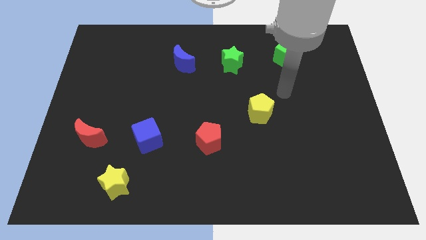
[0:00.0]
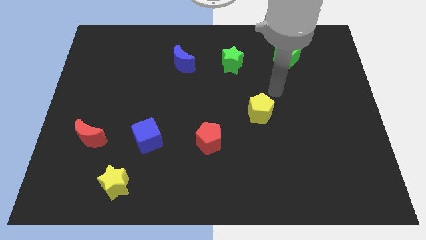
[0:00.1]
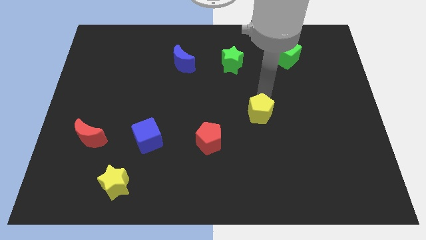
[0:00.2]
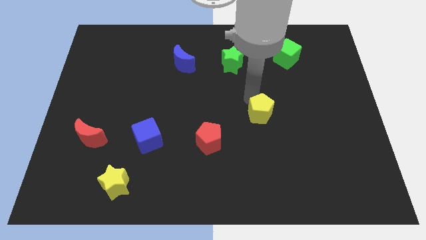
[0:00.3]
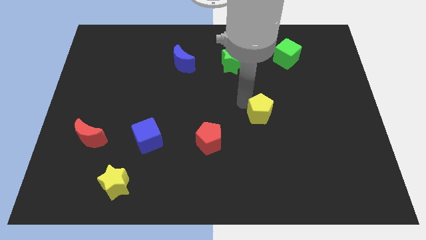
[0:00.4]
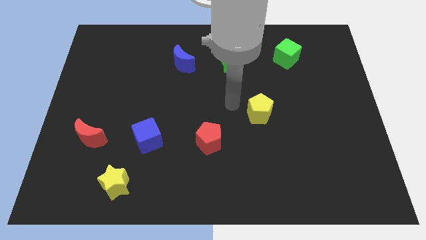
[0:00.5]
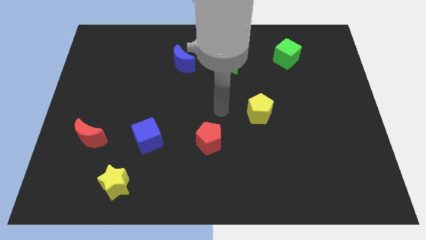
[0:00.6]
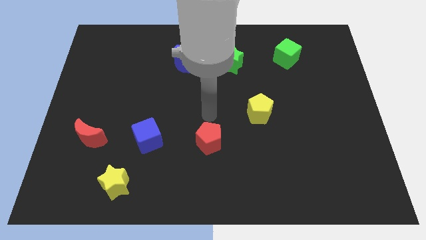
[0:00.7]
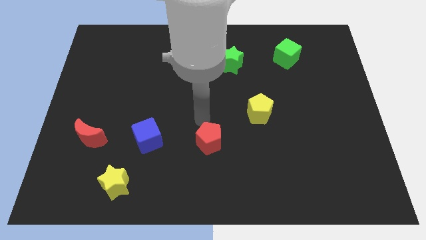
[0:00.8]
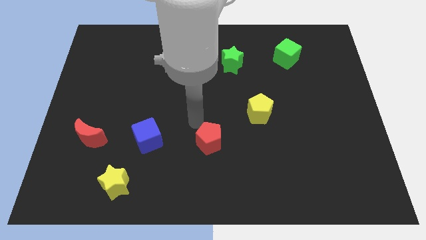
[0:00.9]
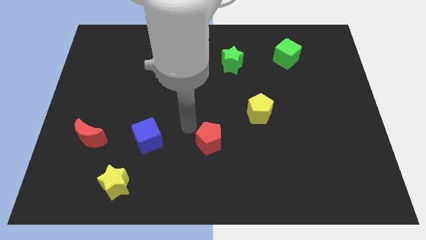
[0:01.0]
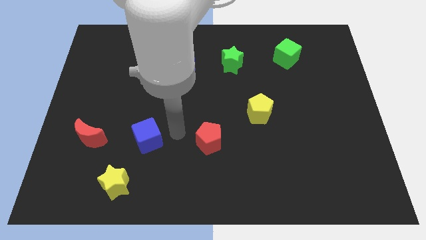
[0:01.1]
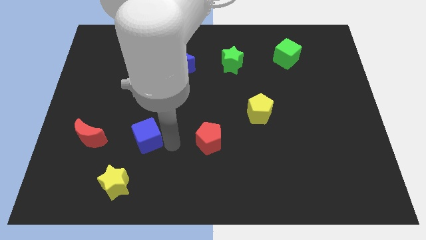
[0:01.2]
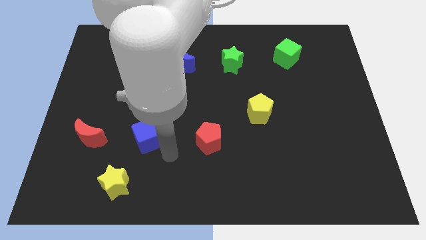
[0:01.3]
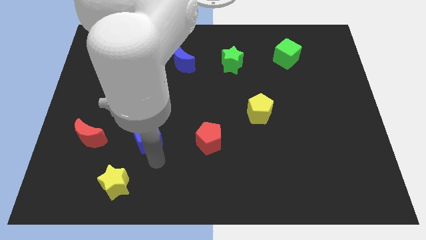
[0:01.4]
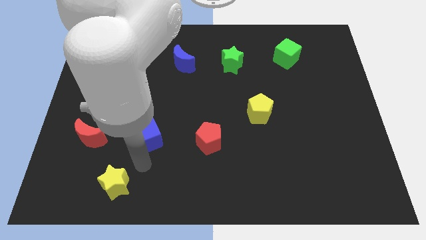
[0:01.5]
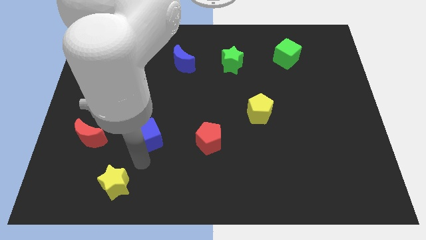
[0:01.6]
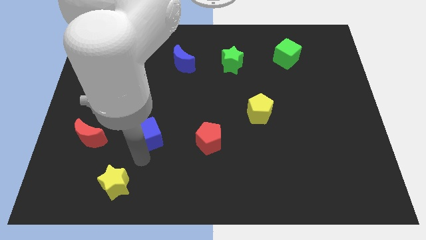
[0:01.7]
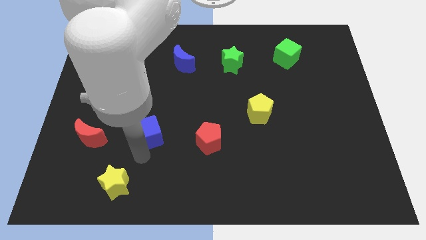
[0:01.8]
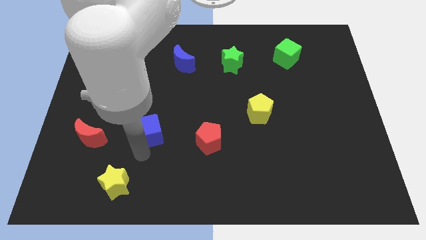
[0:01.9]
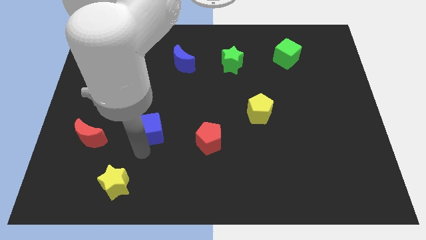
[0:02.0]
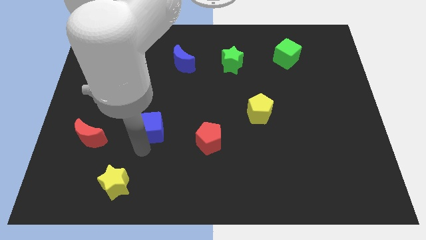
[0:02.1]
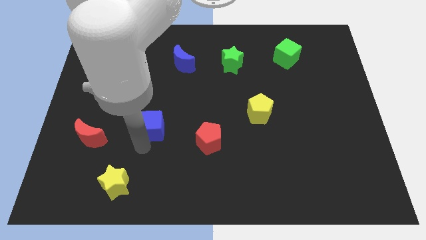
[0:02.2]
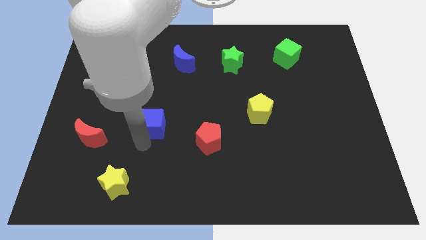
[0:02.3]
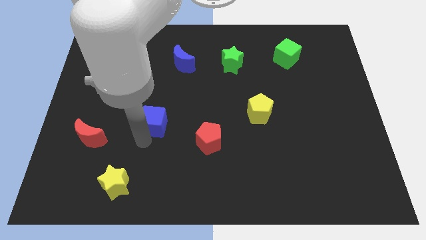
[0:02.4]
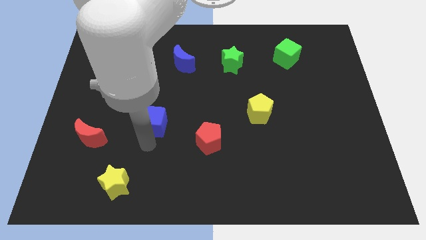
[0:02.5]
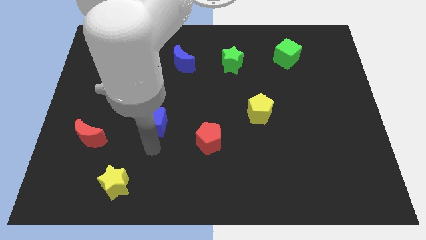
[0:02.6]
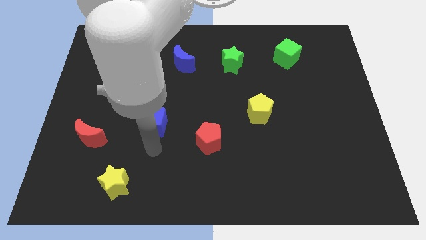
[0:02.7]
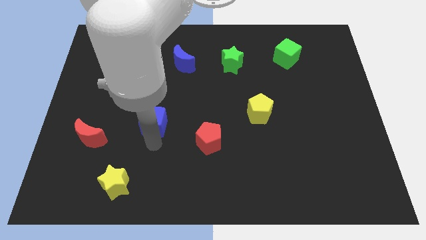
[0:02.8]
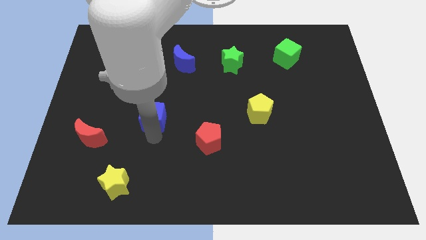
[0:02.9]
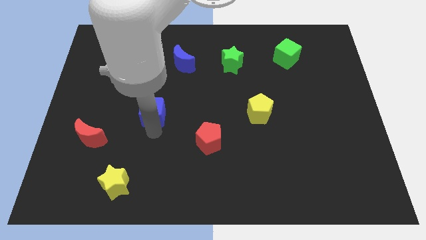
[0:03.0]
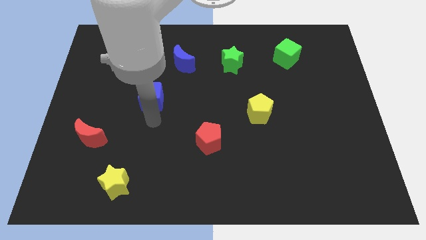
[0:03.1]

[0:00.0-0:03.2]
slide the blue cube a little upwards

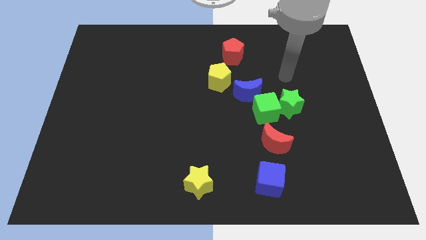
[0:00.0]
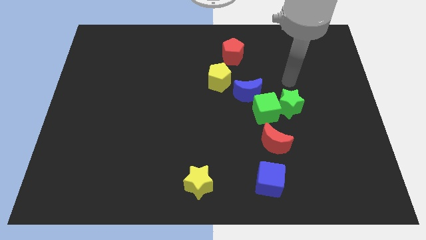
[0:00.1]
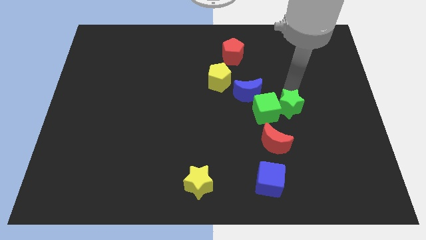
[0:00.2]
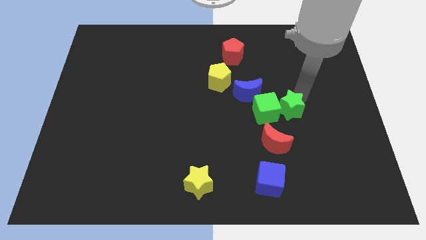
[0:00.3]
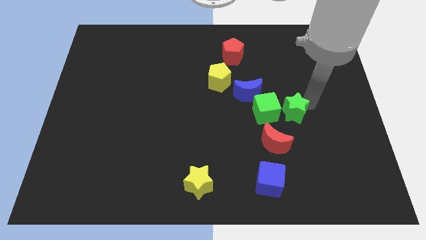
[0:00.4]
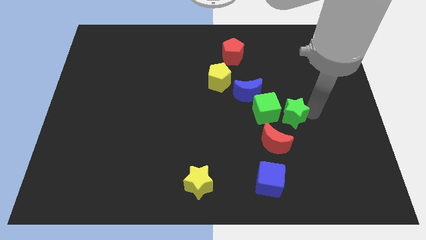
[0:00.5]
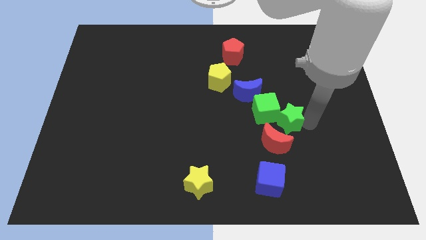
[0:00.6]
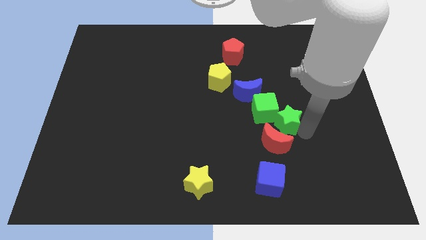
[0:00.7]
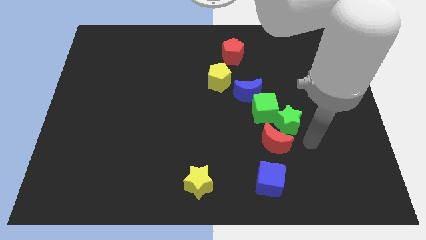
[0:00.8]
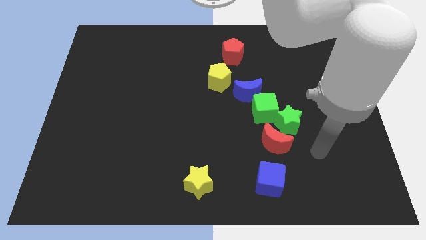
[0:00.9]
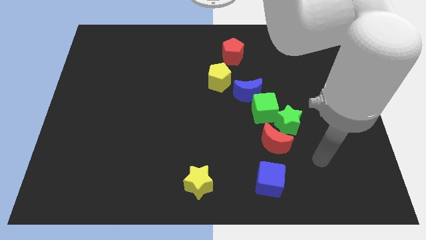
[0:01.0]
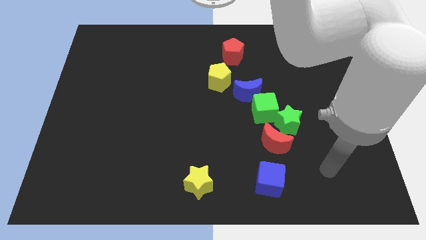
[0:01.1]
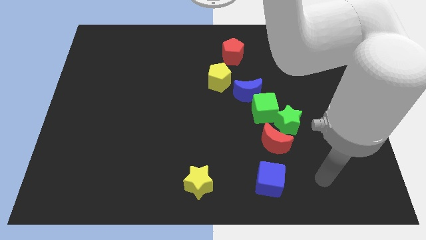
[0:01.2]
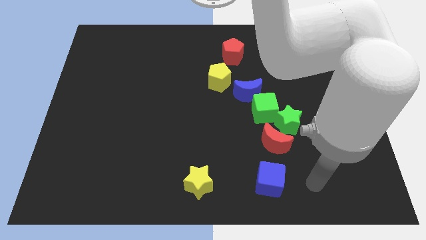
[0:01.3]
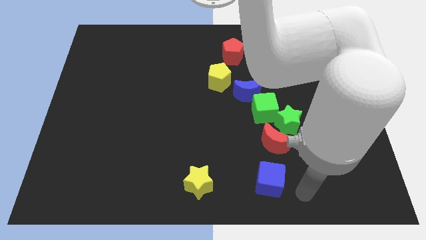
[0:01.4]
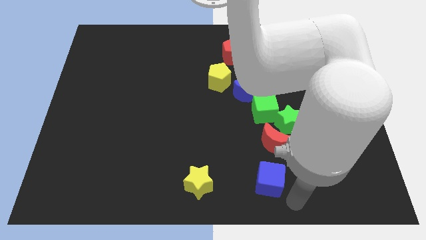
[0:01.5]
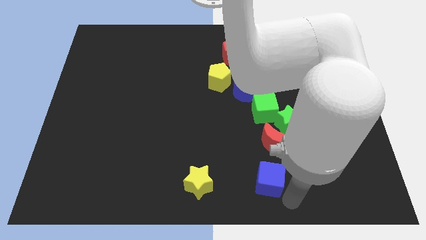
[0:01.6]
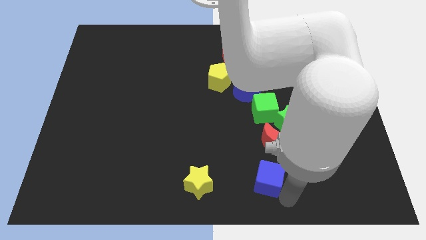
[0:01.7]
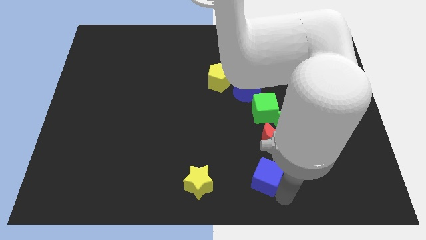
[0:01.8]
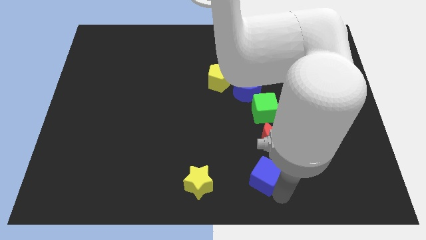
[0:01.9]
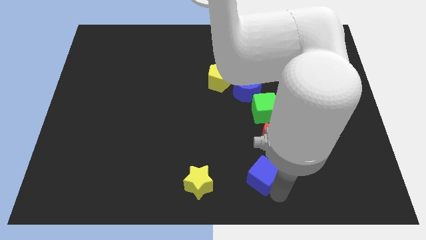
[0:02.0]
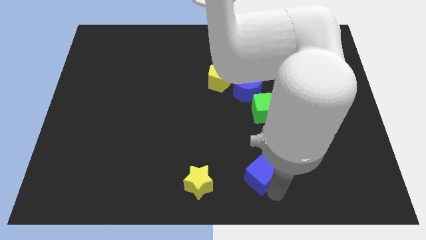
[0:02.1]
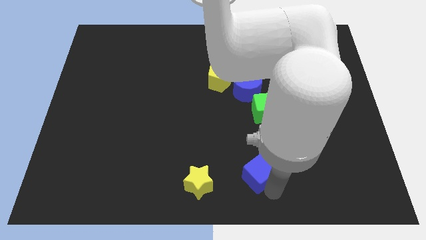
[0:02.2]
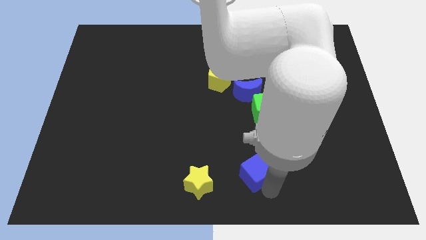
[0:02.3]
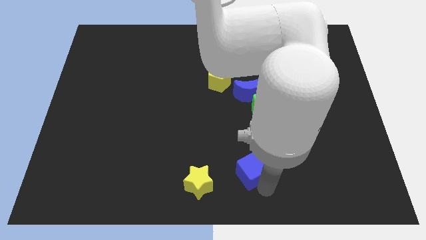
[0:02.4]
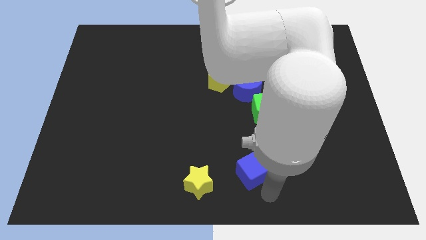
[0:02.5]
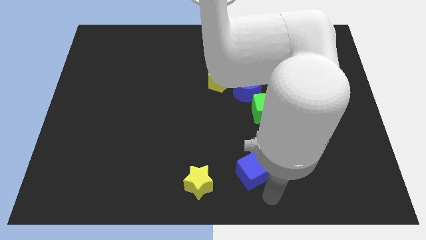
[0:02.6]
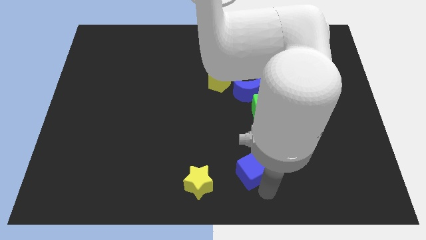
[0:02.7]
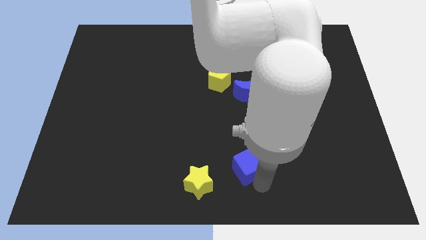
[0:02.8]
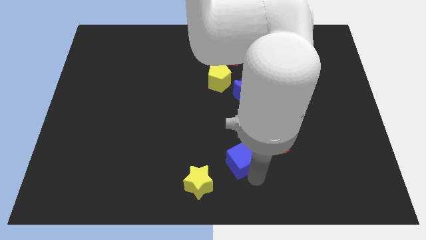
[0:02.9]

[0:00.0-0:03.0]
move the blue cube up and left diagonally a little bit

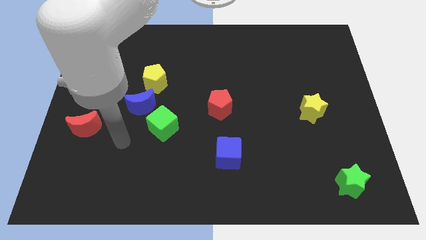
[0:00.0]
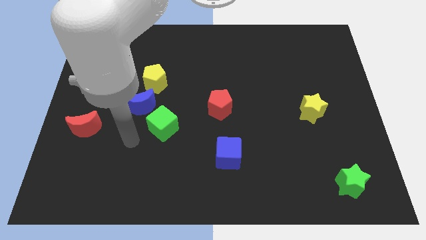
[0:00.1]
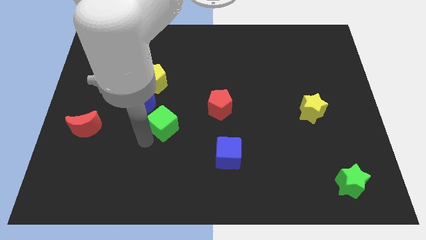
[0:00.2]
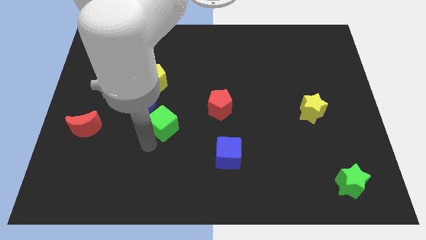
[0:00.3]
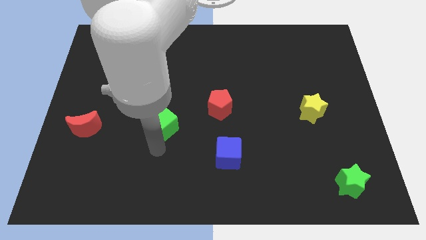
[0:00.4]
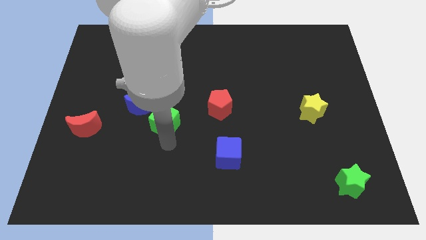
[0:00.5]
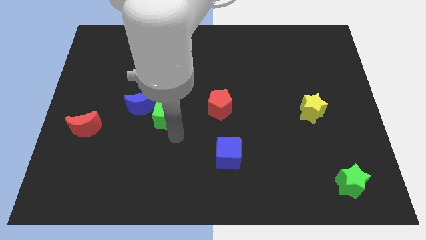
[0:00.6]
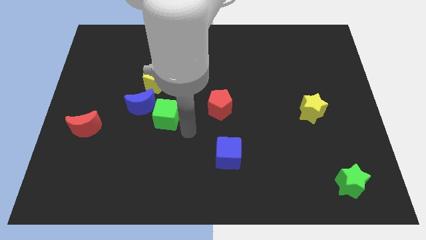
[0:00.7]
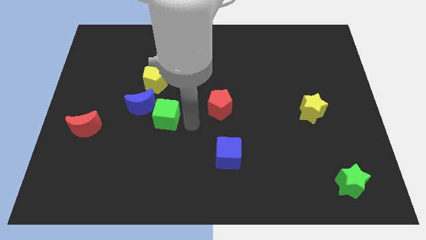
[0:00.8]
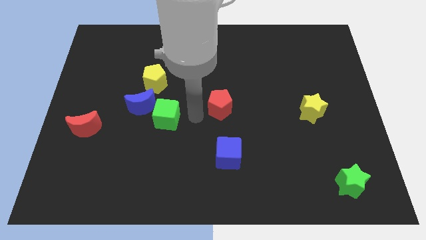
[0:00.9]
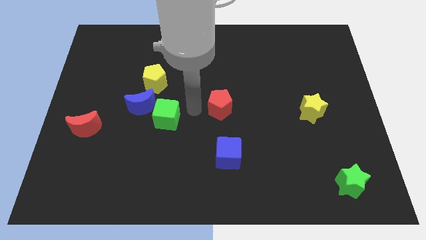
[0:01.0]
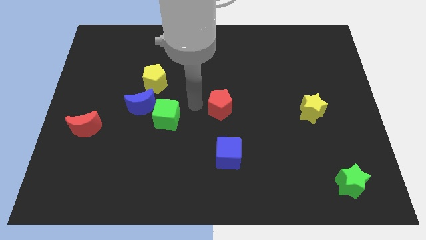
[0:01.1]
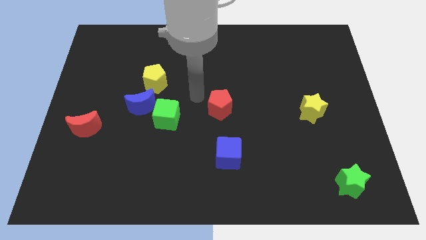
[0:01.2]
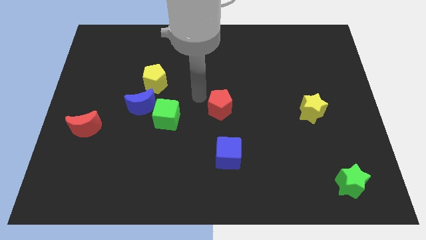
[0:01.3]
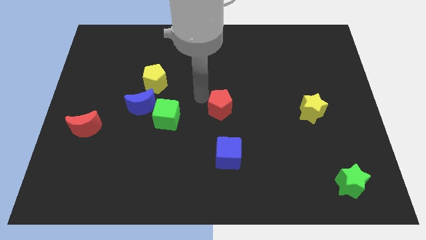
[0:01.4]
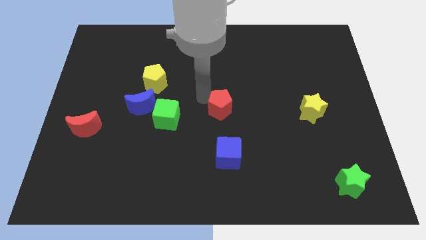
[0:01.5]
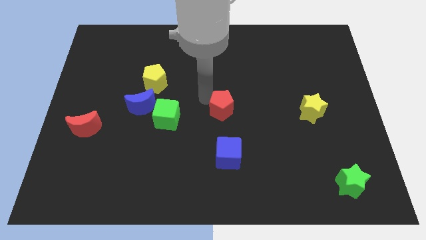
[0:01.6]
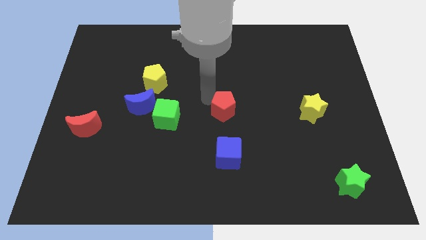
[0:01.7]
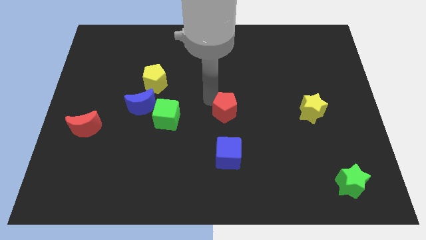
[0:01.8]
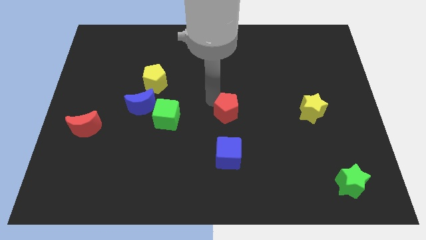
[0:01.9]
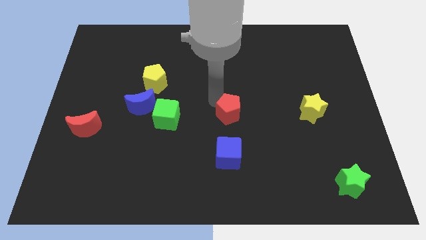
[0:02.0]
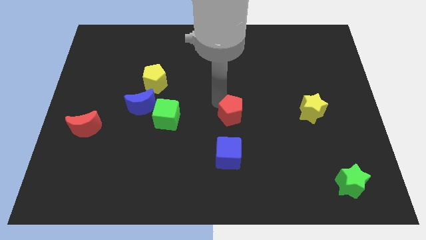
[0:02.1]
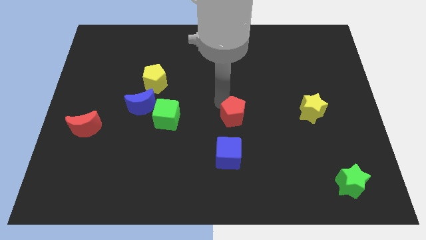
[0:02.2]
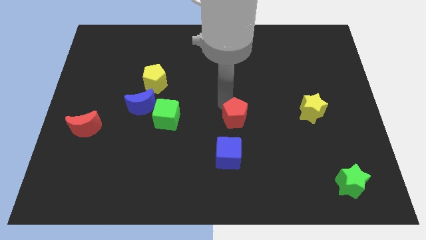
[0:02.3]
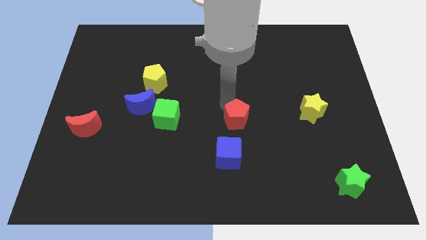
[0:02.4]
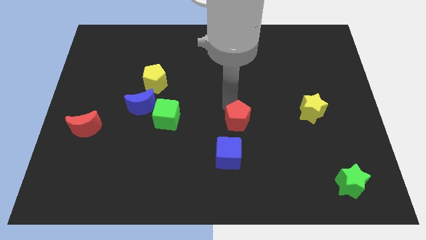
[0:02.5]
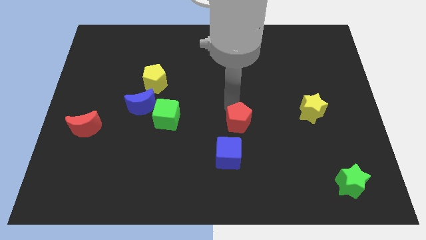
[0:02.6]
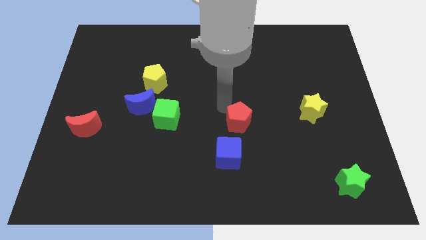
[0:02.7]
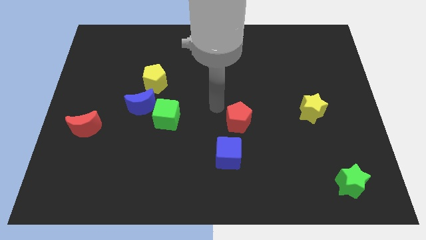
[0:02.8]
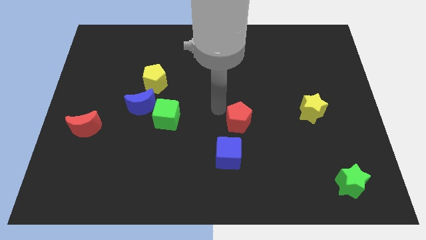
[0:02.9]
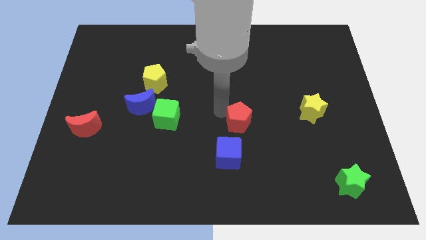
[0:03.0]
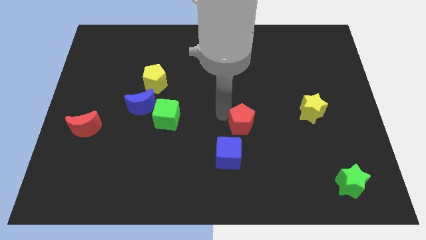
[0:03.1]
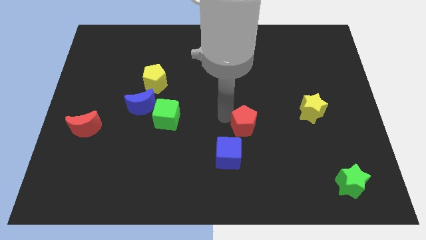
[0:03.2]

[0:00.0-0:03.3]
push the red pentagon a little bit diagonally downwards and right
